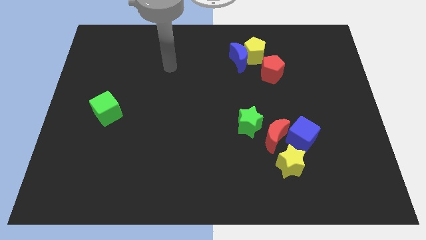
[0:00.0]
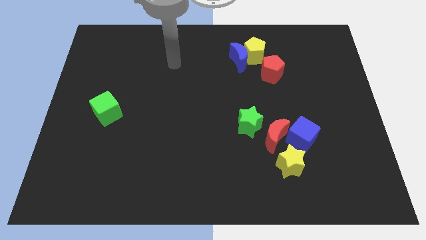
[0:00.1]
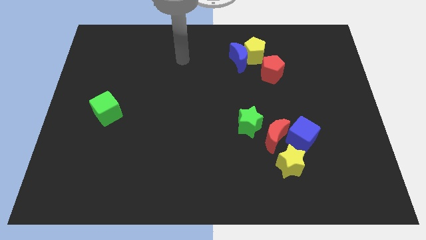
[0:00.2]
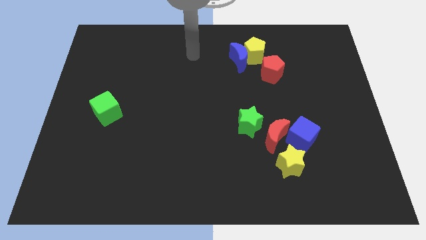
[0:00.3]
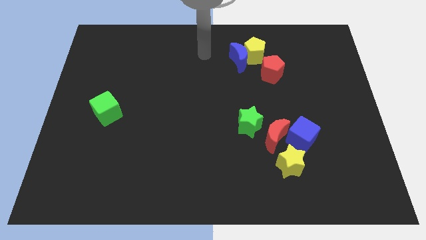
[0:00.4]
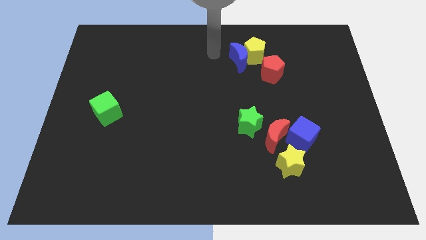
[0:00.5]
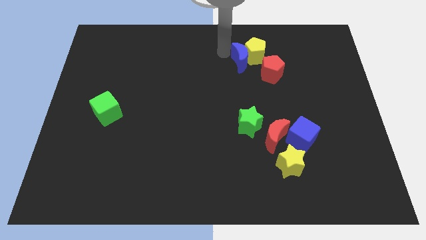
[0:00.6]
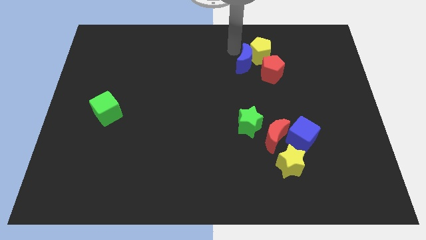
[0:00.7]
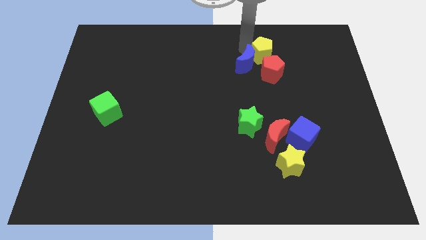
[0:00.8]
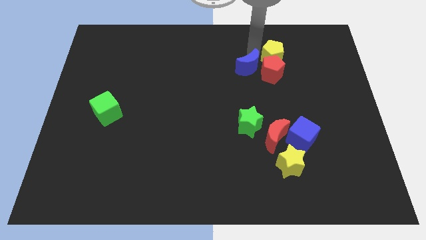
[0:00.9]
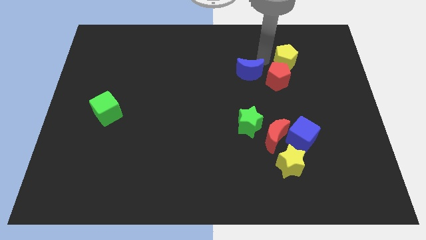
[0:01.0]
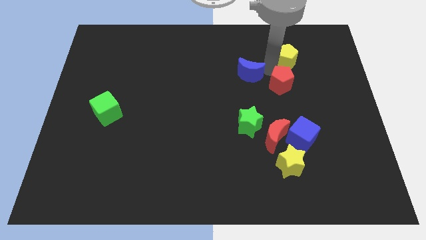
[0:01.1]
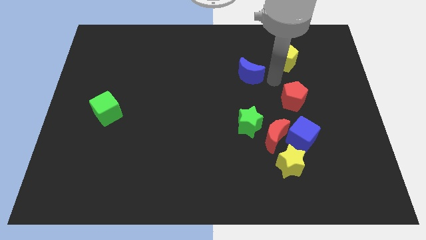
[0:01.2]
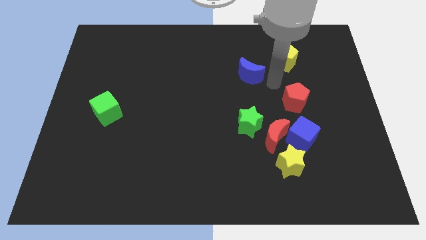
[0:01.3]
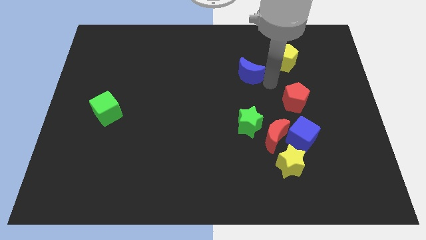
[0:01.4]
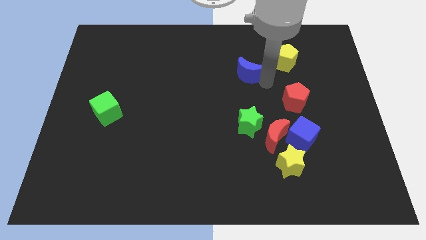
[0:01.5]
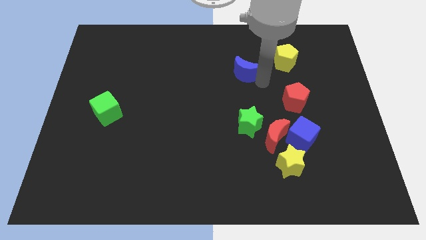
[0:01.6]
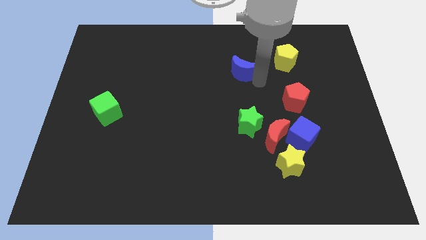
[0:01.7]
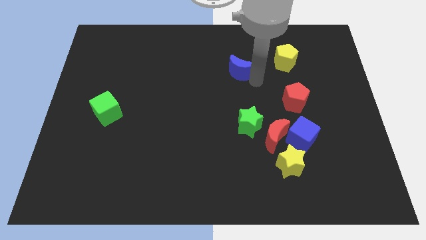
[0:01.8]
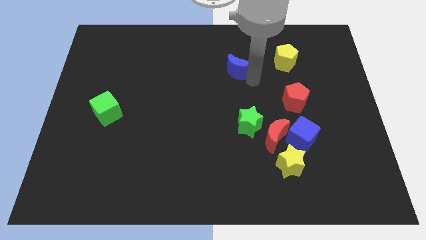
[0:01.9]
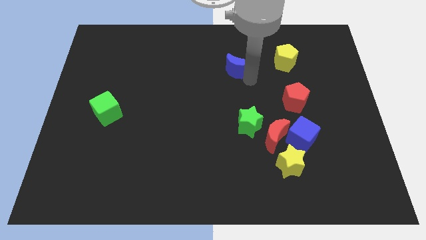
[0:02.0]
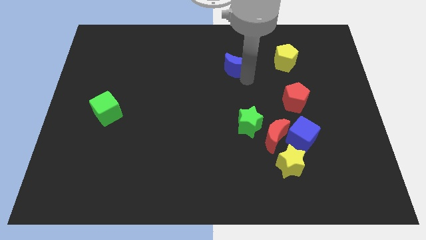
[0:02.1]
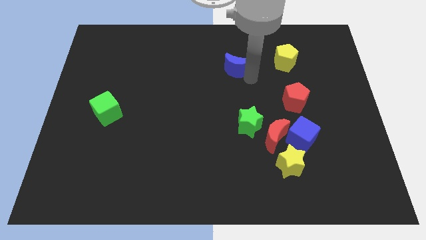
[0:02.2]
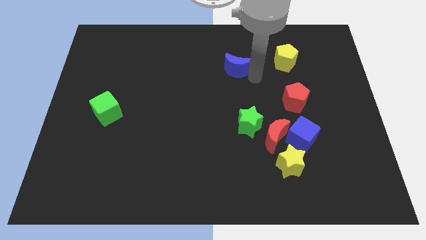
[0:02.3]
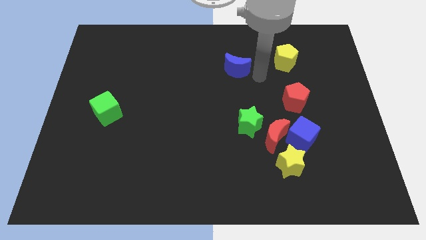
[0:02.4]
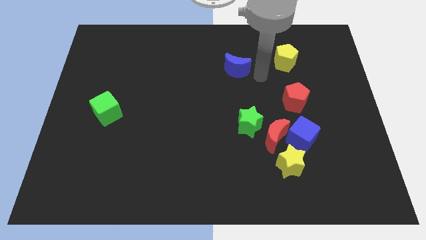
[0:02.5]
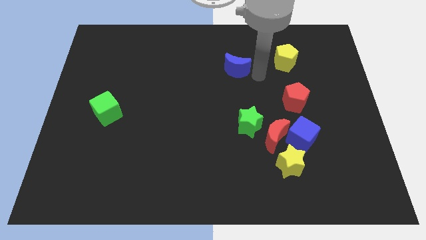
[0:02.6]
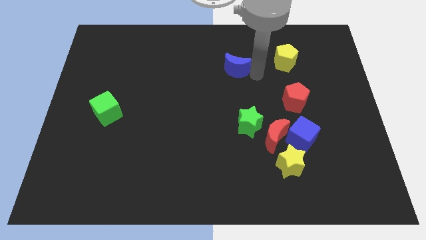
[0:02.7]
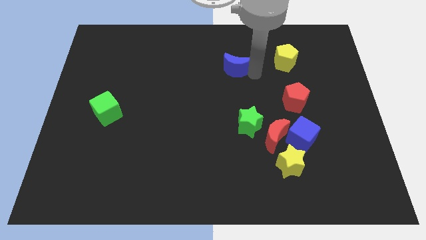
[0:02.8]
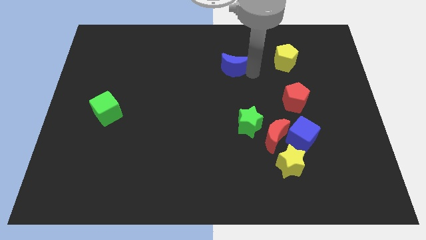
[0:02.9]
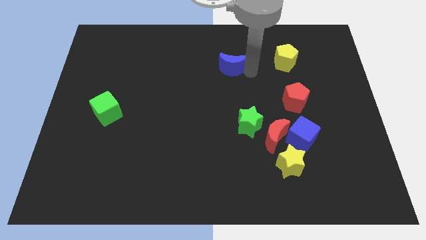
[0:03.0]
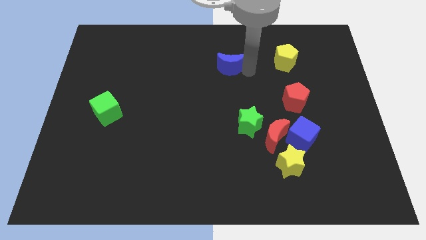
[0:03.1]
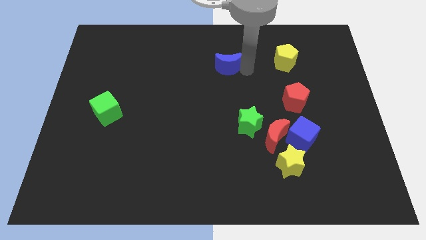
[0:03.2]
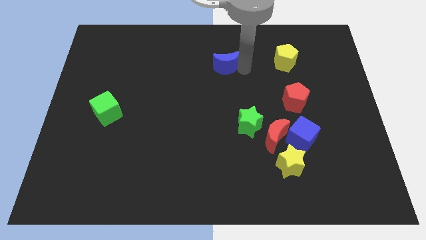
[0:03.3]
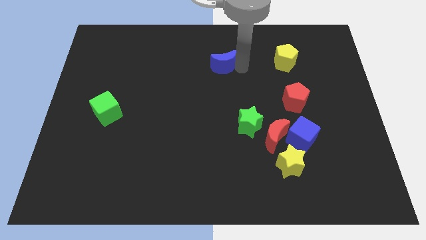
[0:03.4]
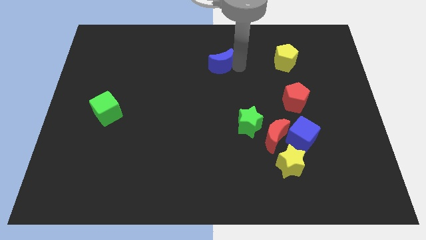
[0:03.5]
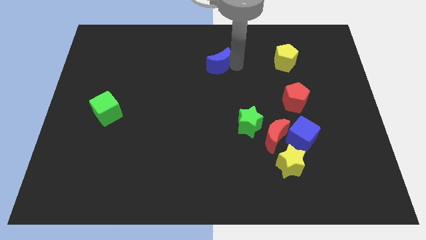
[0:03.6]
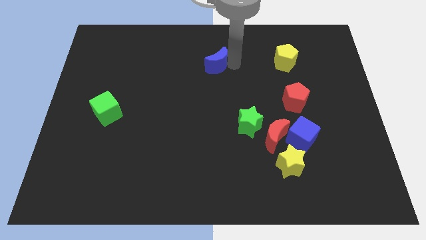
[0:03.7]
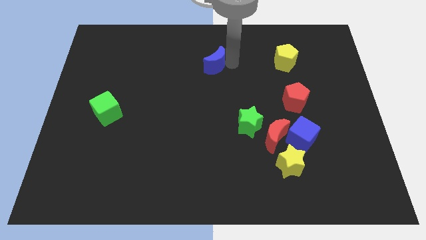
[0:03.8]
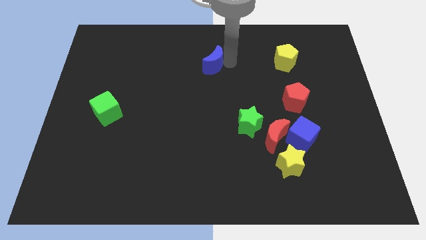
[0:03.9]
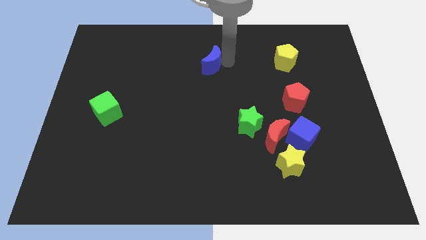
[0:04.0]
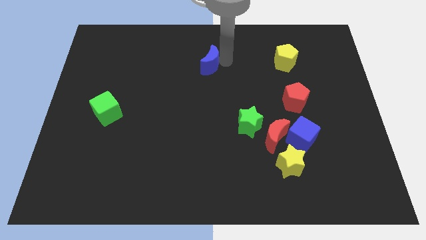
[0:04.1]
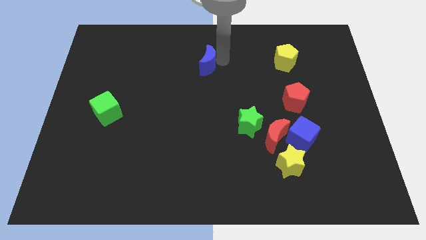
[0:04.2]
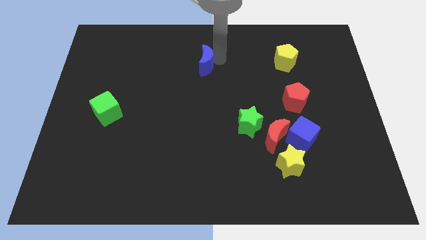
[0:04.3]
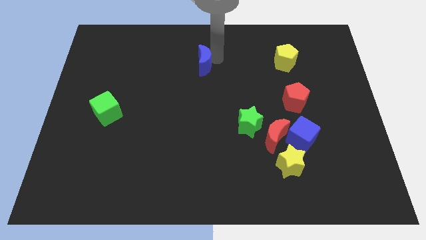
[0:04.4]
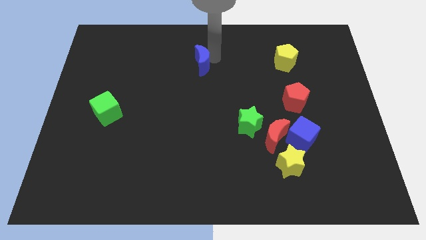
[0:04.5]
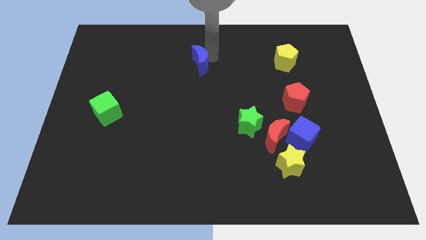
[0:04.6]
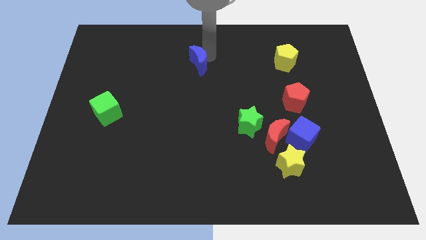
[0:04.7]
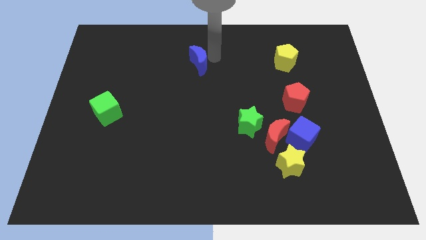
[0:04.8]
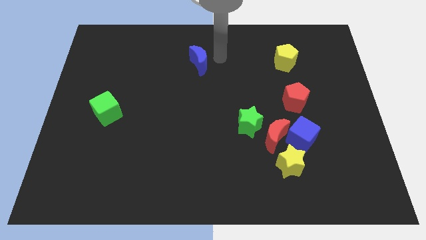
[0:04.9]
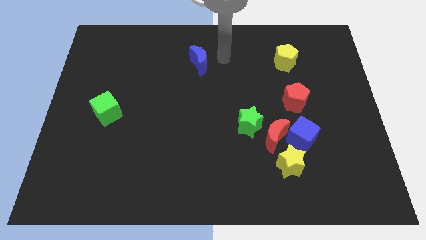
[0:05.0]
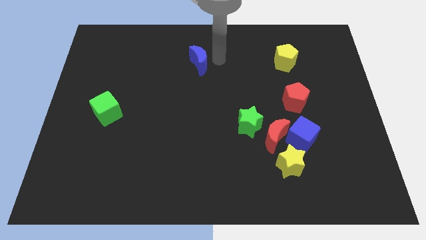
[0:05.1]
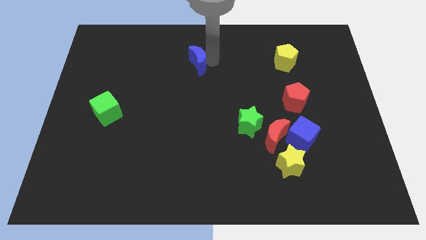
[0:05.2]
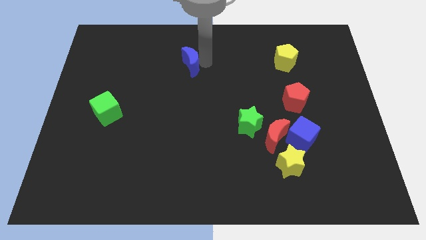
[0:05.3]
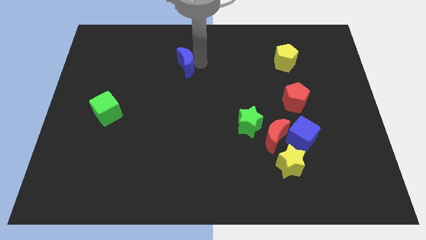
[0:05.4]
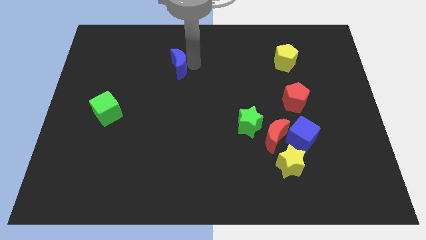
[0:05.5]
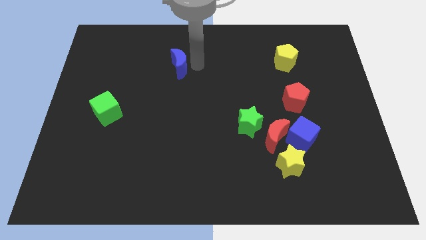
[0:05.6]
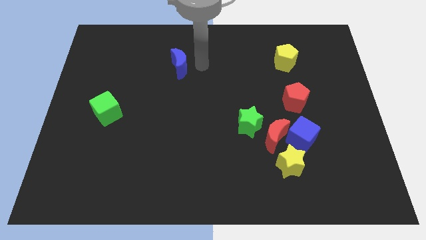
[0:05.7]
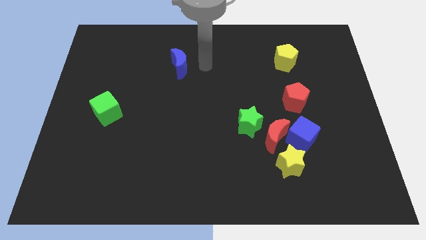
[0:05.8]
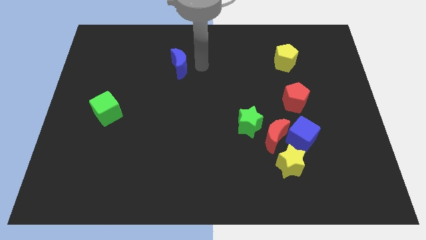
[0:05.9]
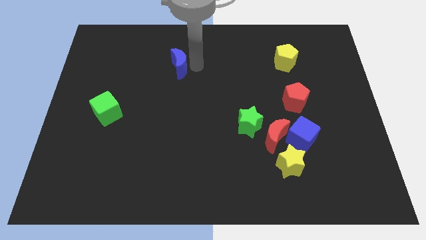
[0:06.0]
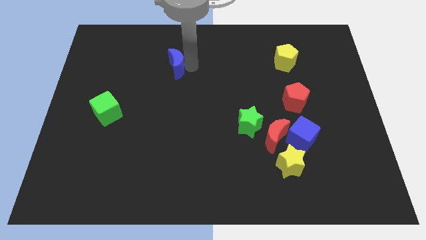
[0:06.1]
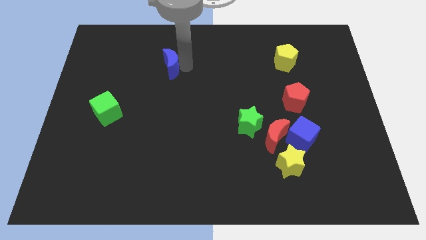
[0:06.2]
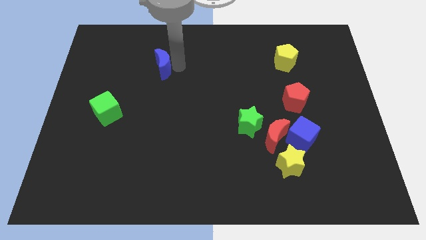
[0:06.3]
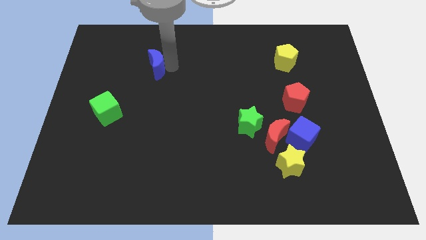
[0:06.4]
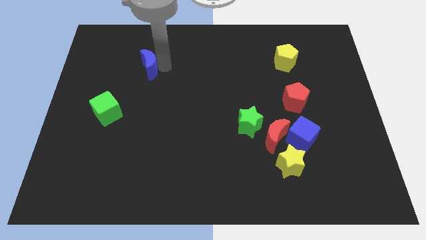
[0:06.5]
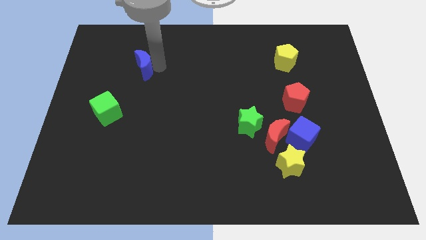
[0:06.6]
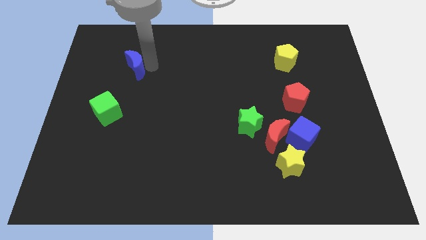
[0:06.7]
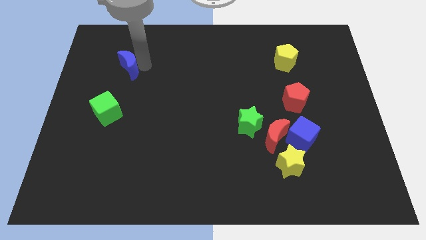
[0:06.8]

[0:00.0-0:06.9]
slide the blue moon to the top of the green cube
